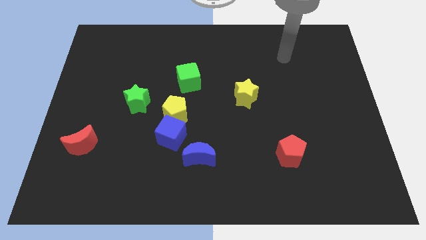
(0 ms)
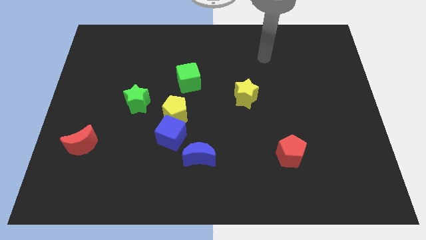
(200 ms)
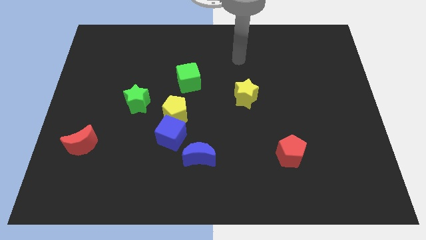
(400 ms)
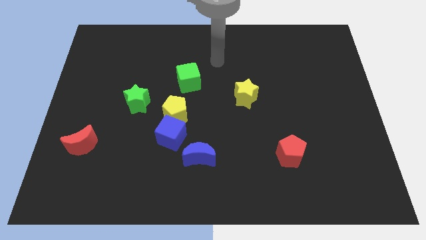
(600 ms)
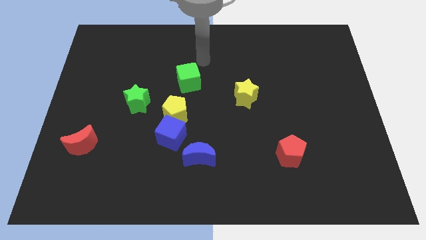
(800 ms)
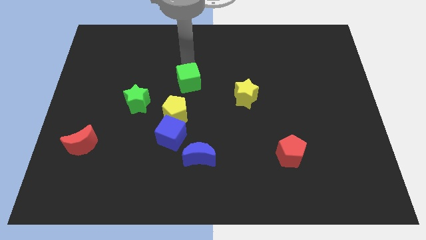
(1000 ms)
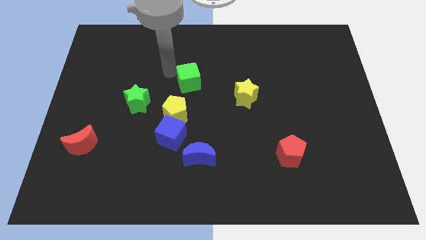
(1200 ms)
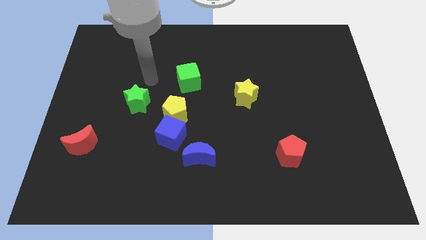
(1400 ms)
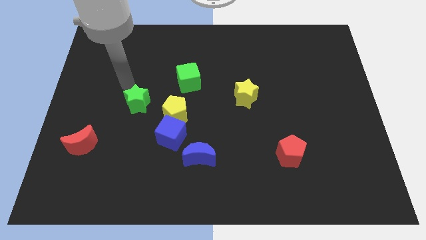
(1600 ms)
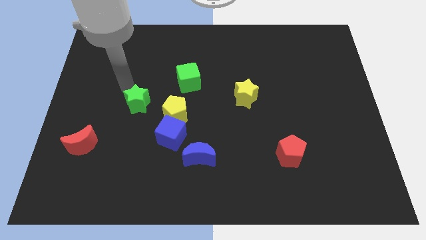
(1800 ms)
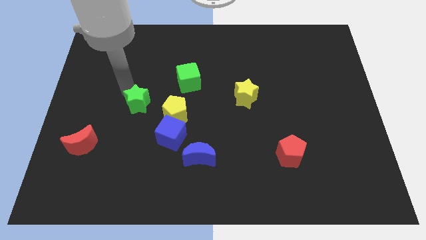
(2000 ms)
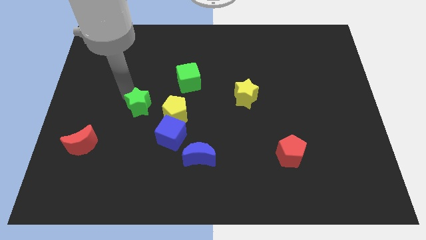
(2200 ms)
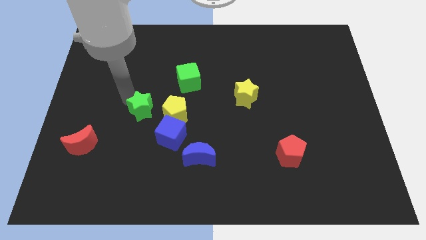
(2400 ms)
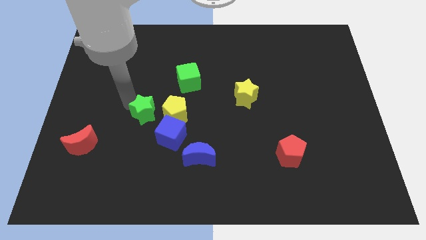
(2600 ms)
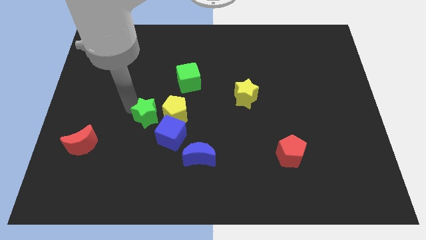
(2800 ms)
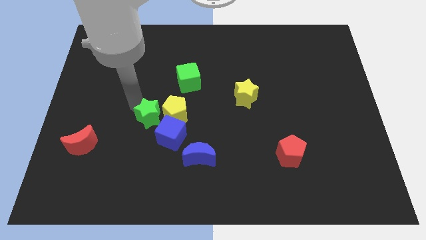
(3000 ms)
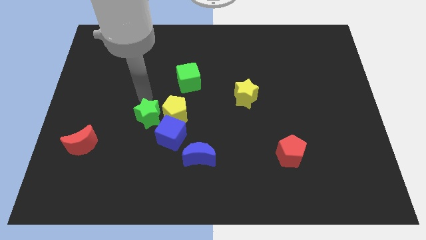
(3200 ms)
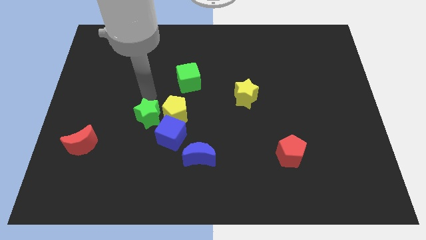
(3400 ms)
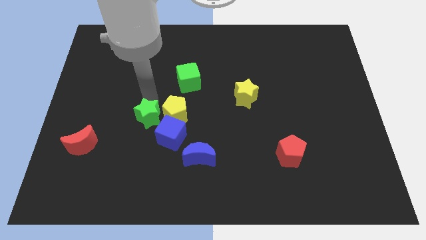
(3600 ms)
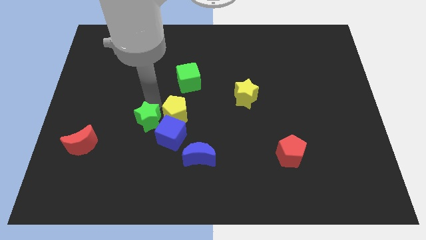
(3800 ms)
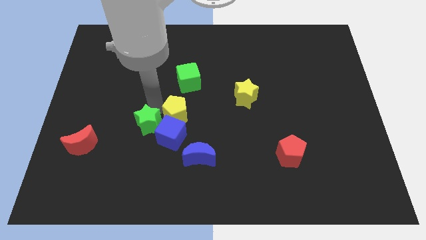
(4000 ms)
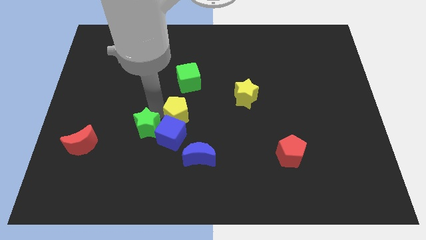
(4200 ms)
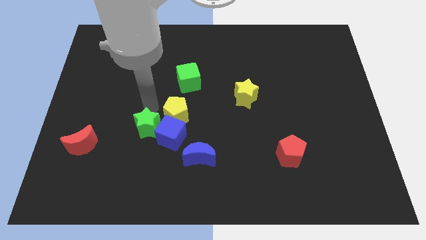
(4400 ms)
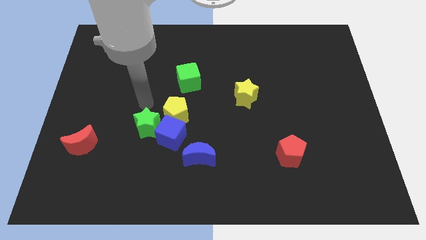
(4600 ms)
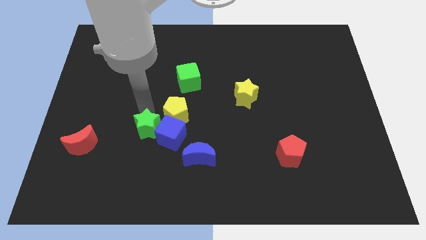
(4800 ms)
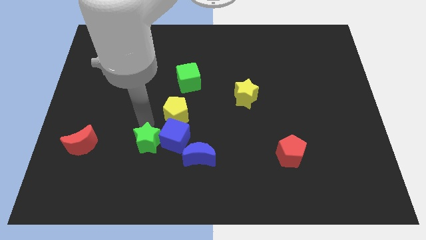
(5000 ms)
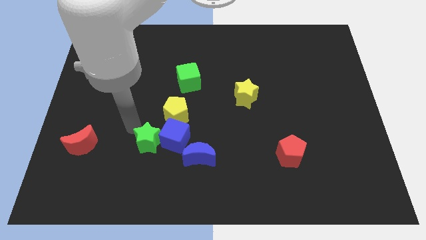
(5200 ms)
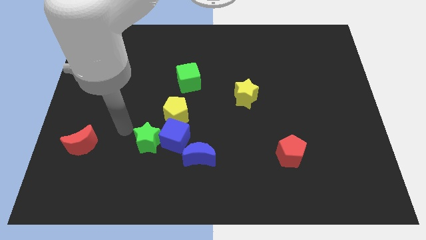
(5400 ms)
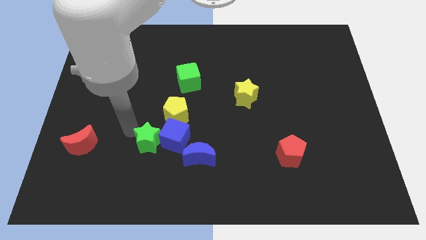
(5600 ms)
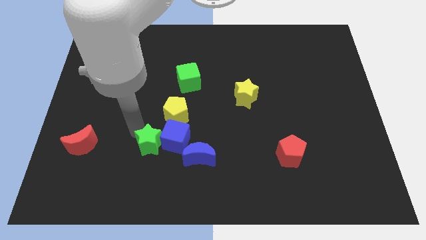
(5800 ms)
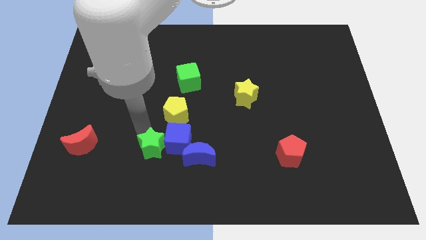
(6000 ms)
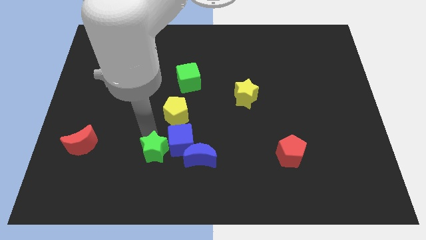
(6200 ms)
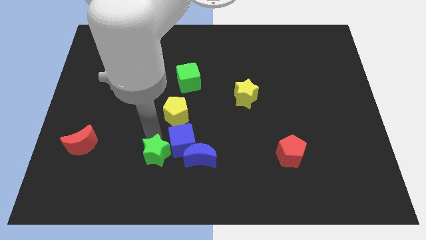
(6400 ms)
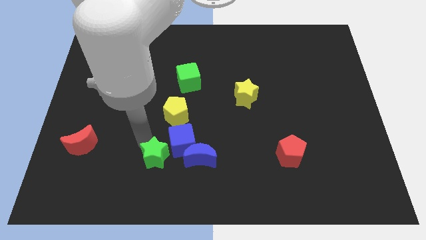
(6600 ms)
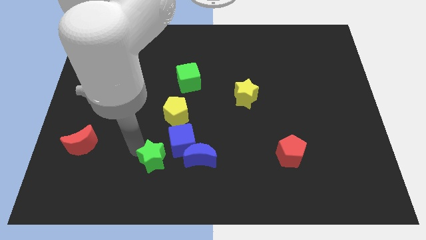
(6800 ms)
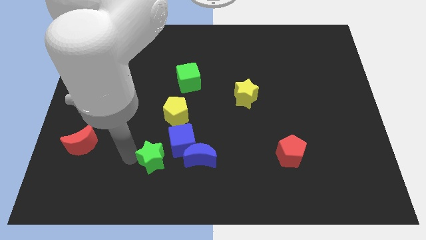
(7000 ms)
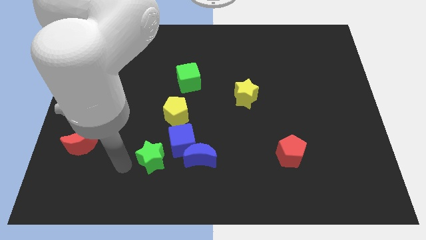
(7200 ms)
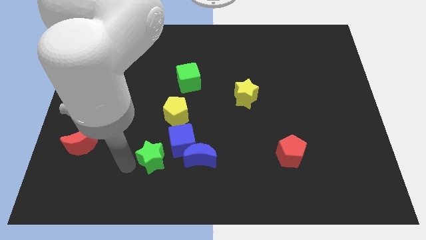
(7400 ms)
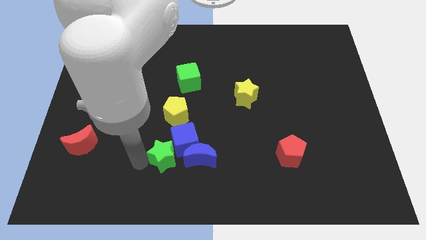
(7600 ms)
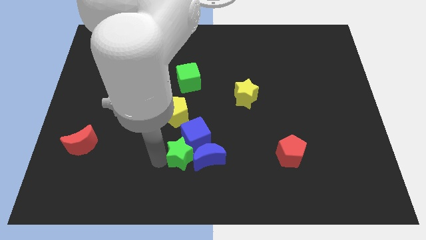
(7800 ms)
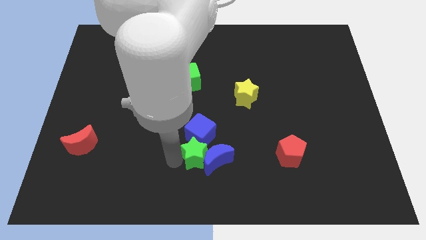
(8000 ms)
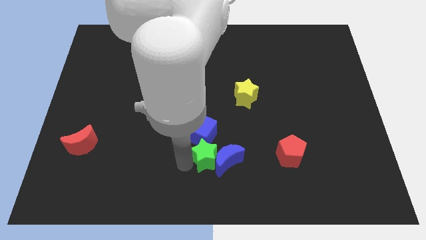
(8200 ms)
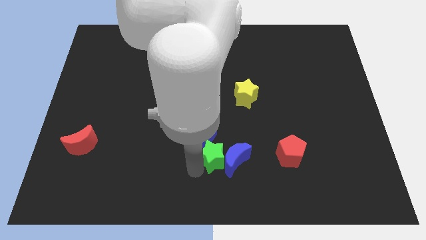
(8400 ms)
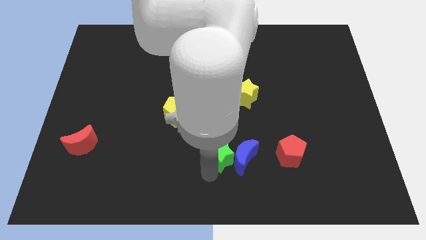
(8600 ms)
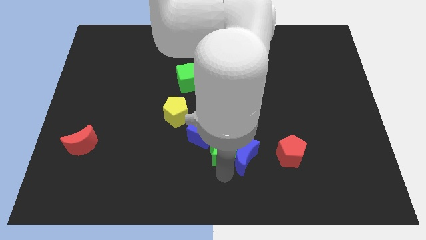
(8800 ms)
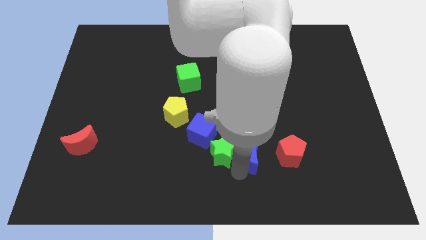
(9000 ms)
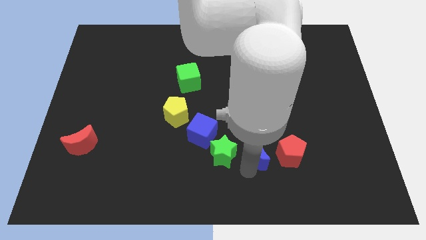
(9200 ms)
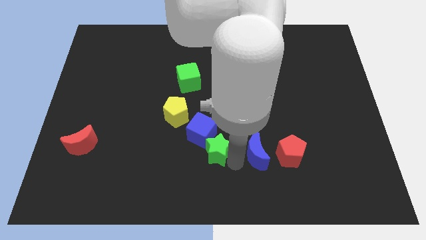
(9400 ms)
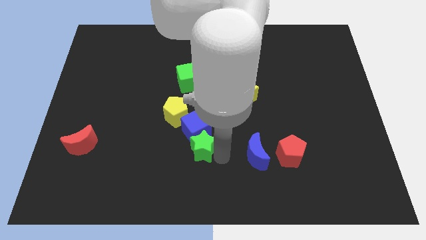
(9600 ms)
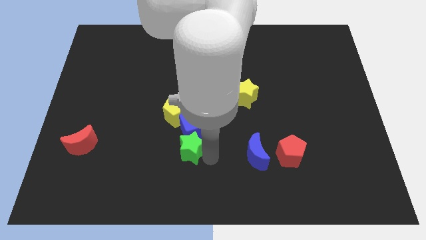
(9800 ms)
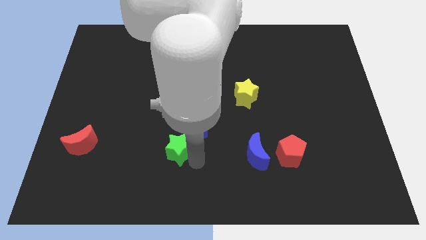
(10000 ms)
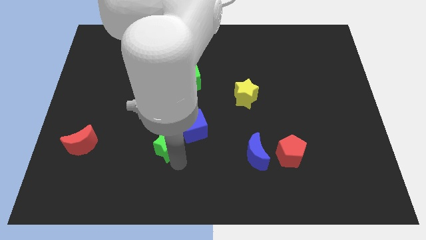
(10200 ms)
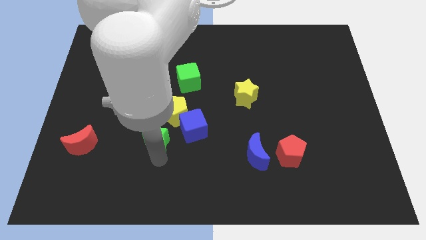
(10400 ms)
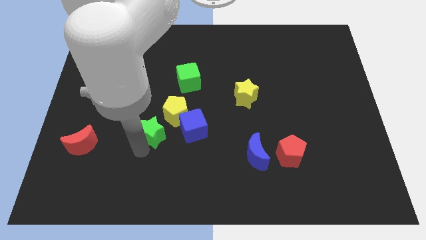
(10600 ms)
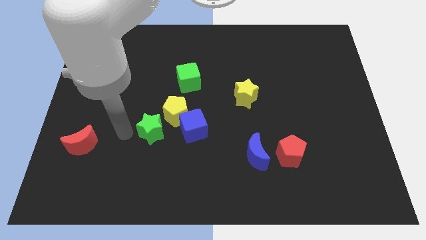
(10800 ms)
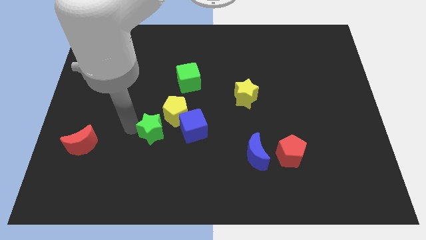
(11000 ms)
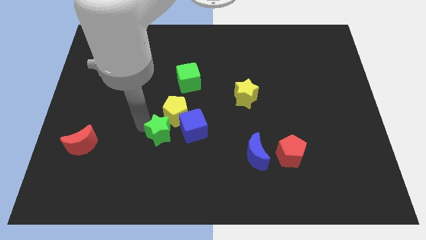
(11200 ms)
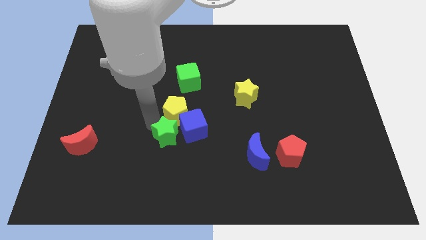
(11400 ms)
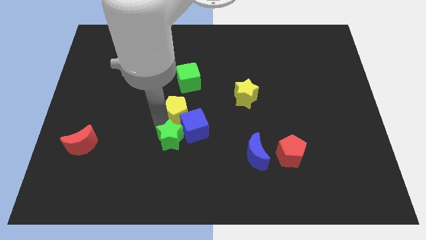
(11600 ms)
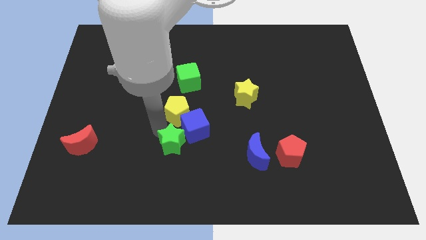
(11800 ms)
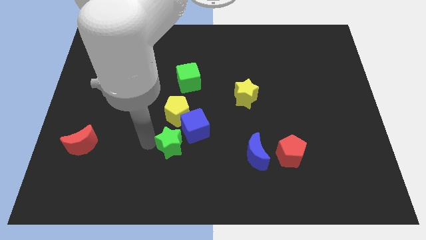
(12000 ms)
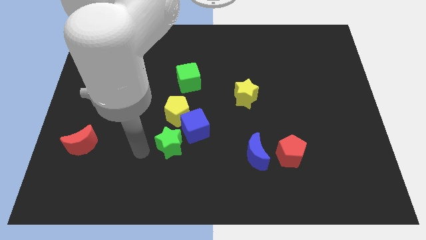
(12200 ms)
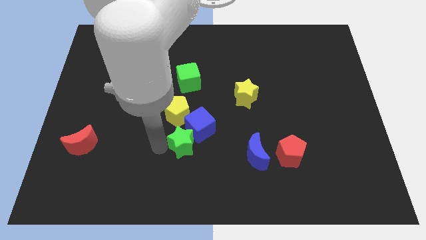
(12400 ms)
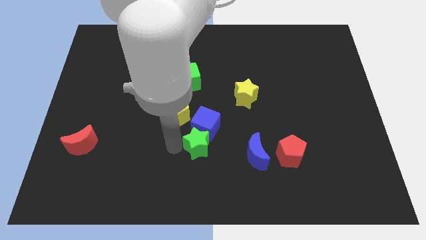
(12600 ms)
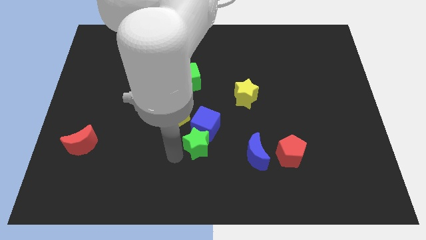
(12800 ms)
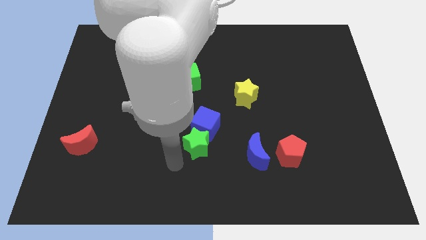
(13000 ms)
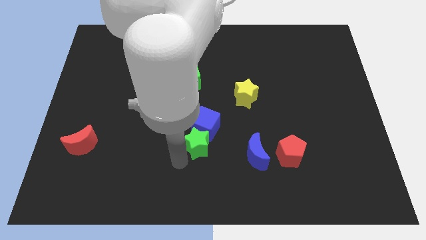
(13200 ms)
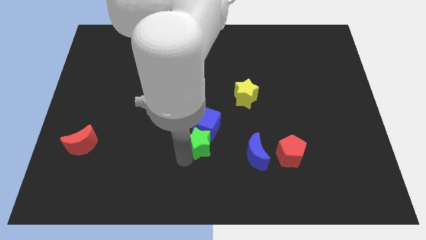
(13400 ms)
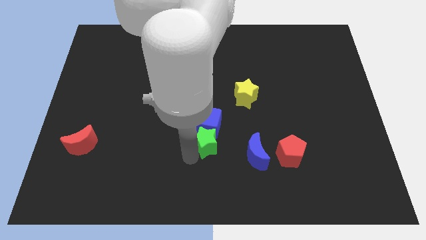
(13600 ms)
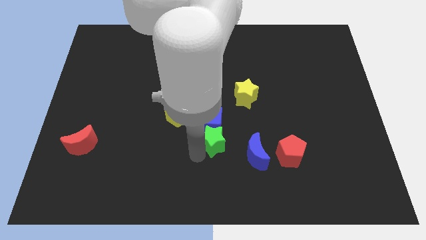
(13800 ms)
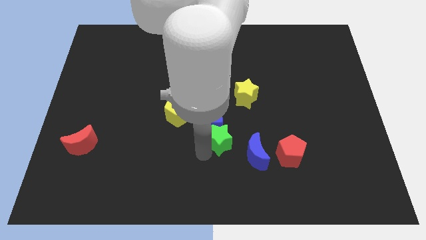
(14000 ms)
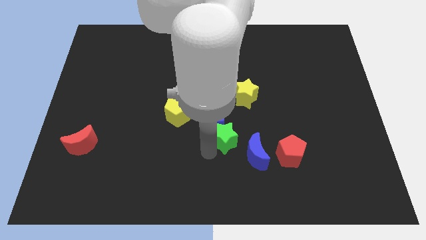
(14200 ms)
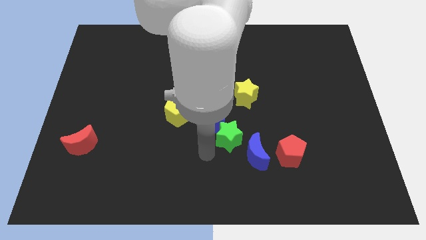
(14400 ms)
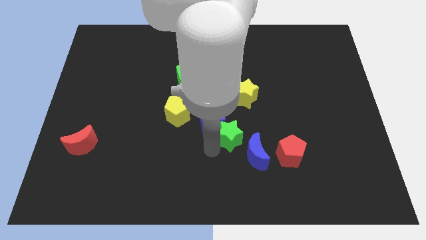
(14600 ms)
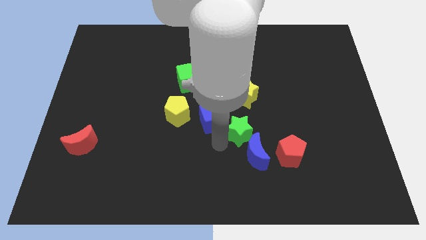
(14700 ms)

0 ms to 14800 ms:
push the green star to the right

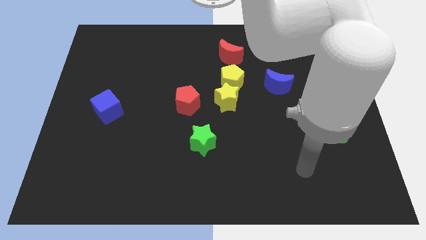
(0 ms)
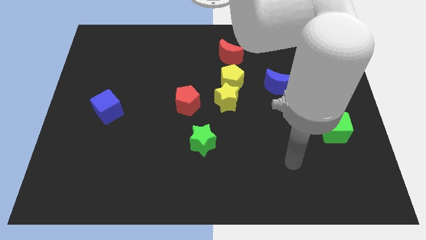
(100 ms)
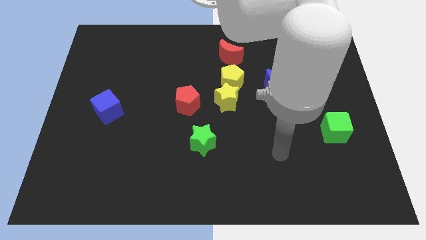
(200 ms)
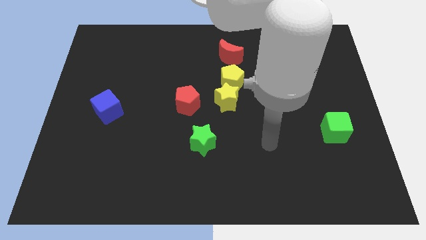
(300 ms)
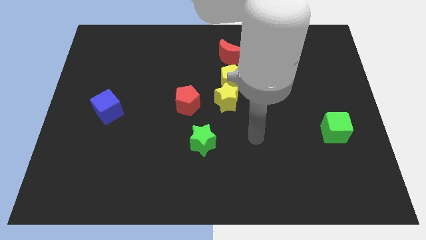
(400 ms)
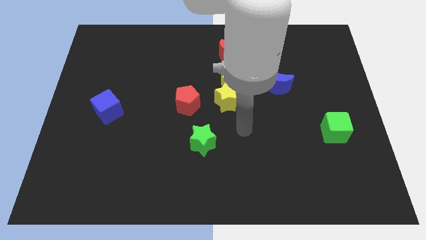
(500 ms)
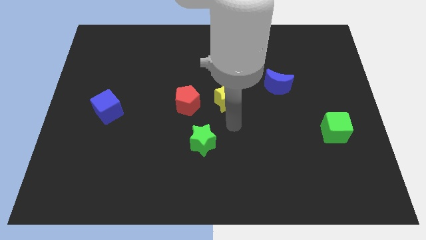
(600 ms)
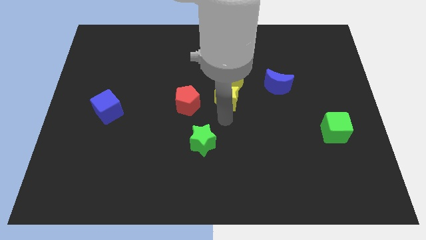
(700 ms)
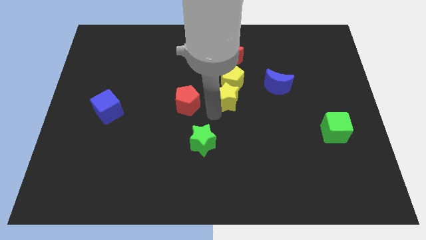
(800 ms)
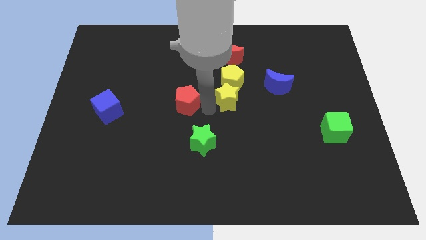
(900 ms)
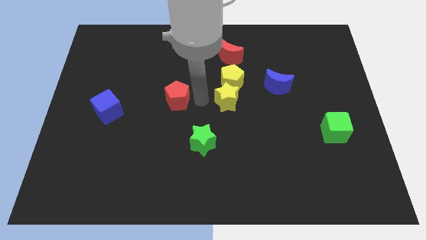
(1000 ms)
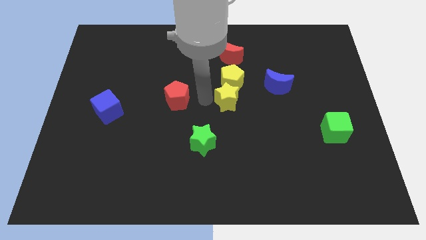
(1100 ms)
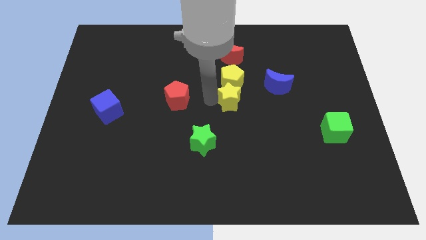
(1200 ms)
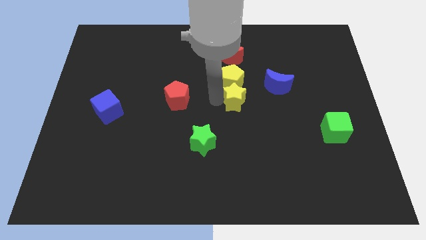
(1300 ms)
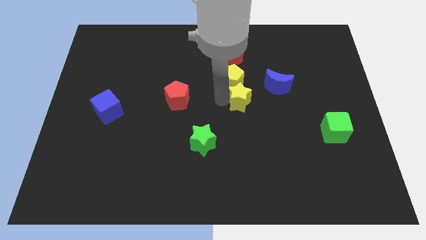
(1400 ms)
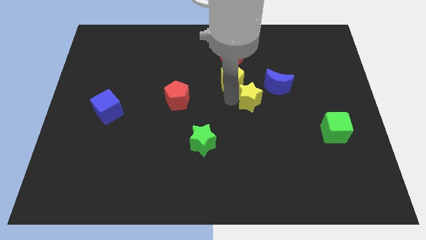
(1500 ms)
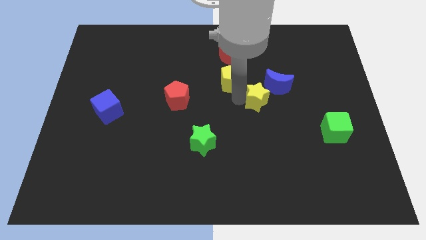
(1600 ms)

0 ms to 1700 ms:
slide the yellow star right a little
